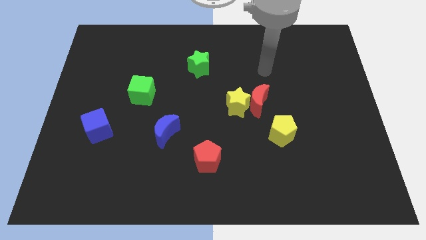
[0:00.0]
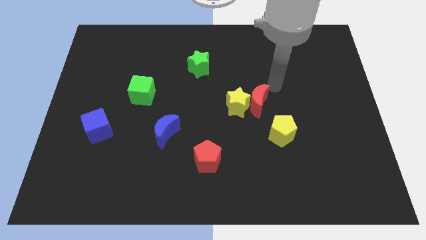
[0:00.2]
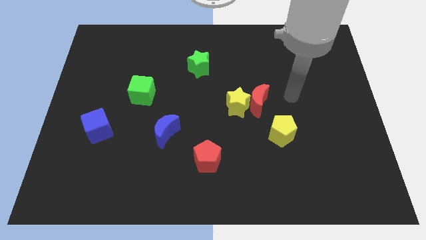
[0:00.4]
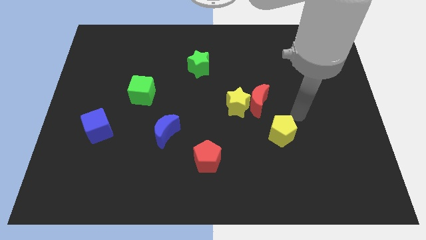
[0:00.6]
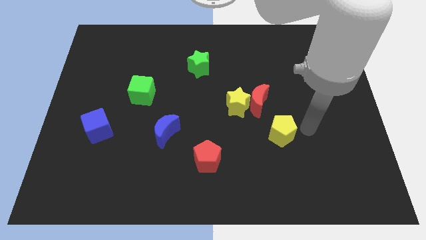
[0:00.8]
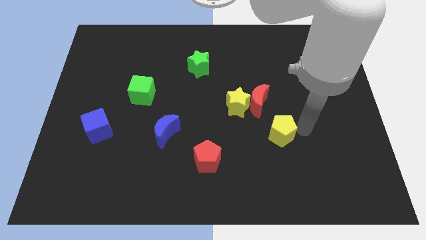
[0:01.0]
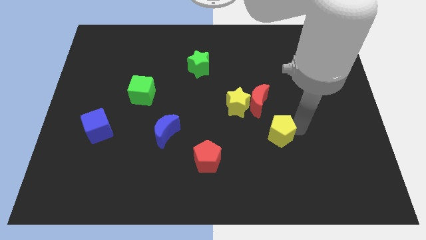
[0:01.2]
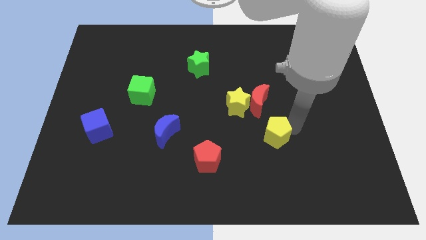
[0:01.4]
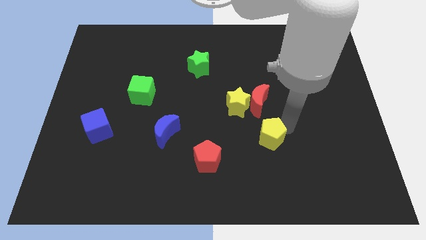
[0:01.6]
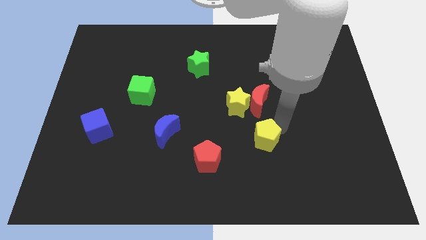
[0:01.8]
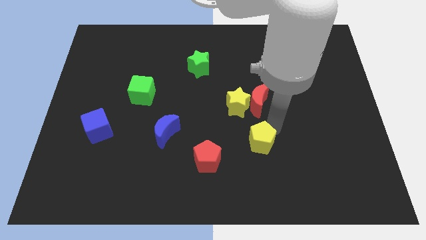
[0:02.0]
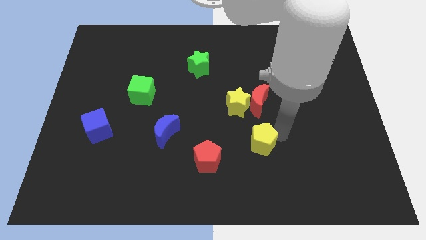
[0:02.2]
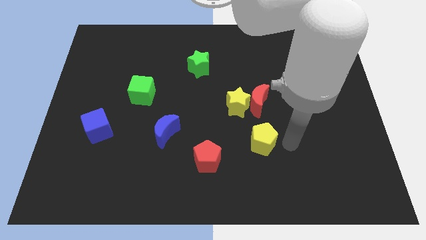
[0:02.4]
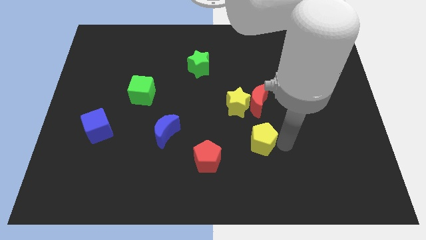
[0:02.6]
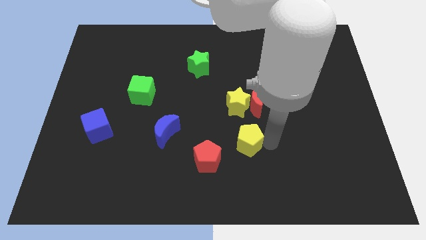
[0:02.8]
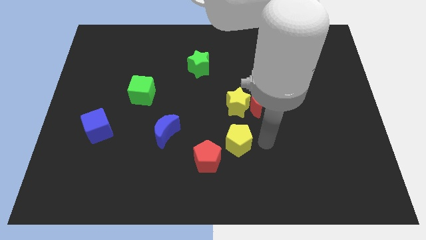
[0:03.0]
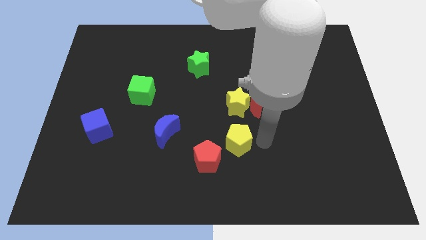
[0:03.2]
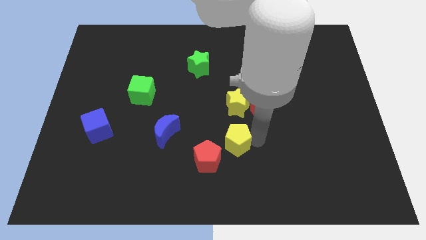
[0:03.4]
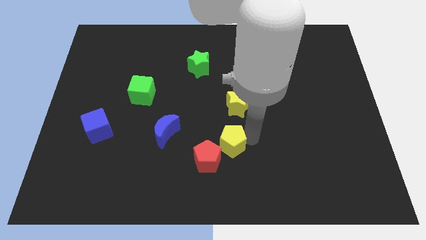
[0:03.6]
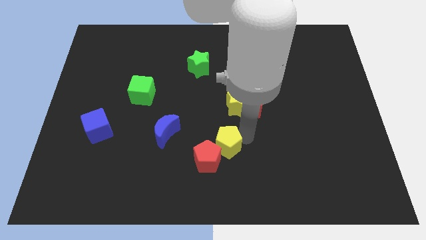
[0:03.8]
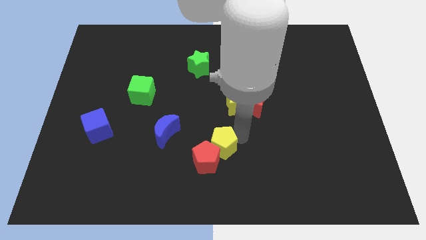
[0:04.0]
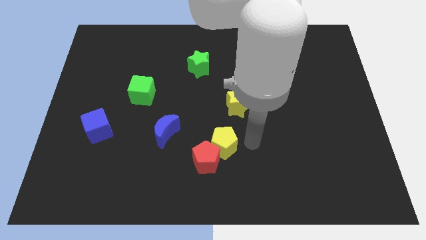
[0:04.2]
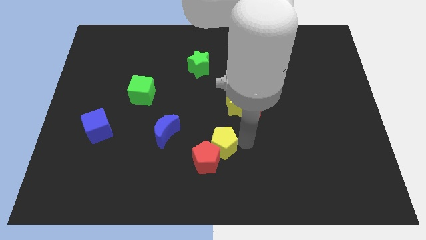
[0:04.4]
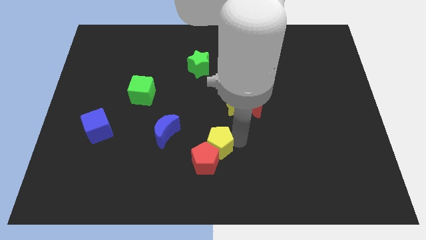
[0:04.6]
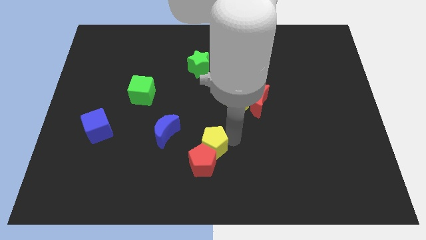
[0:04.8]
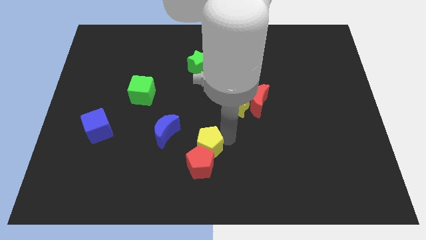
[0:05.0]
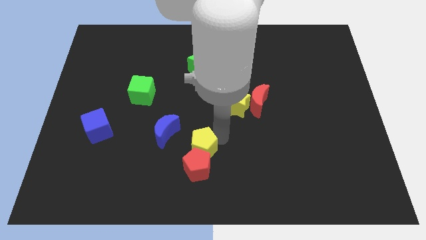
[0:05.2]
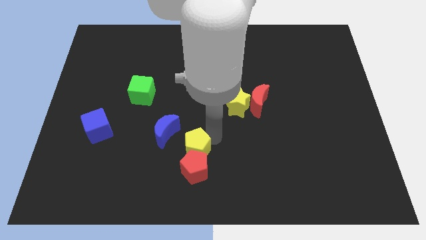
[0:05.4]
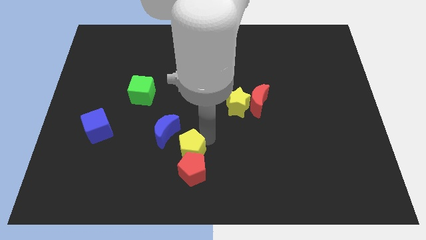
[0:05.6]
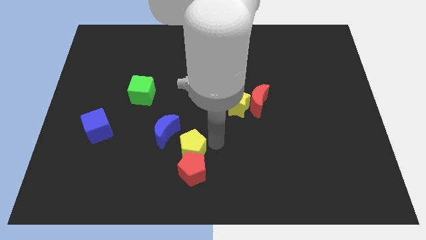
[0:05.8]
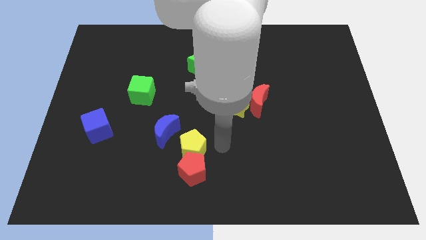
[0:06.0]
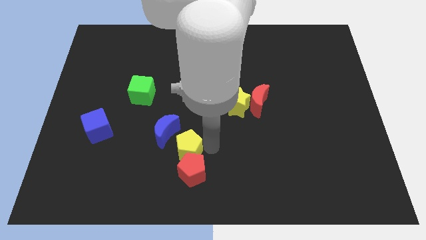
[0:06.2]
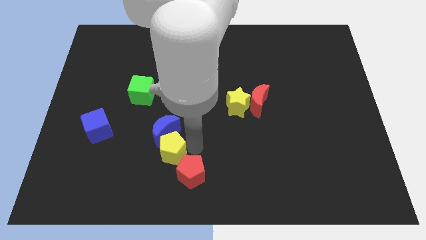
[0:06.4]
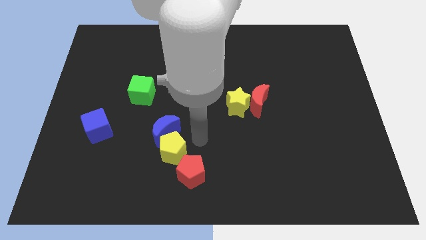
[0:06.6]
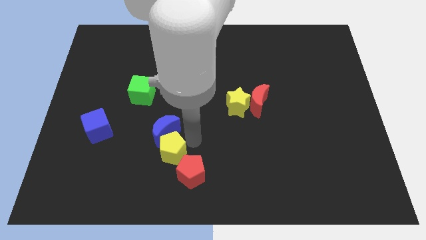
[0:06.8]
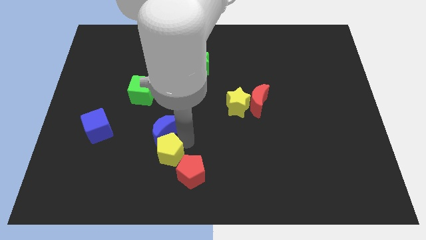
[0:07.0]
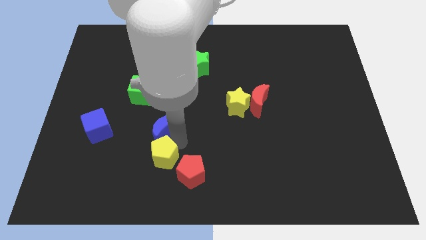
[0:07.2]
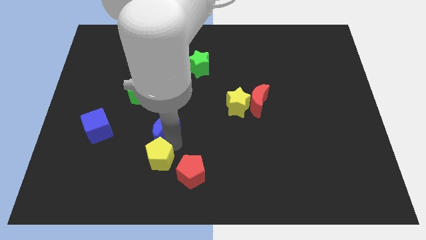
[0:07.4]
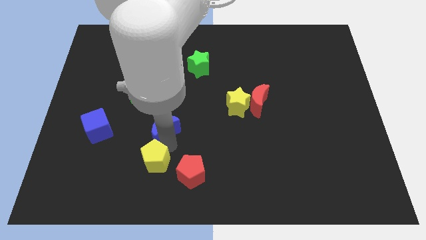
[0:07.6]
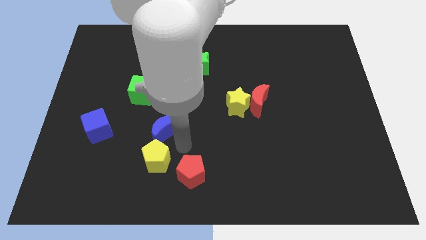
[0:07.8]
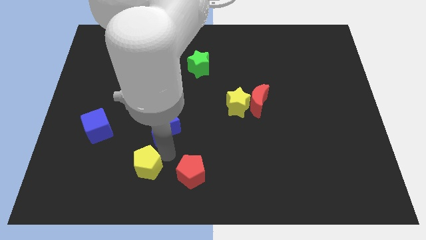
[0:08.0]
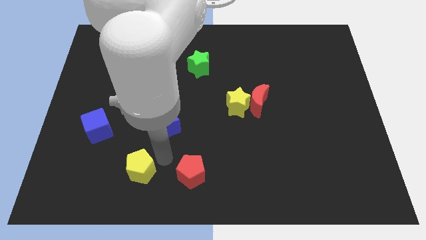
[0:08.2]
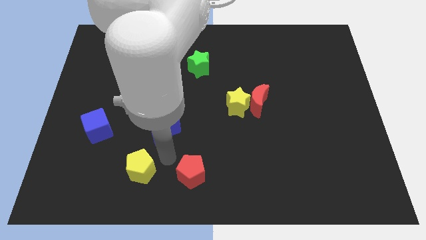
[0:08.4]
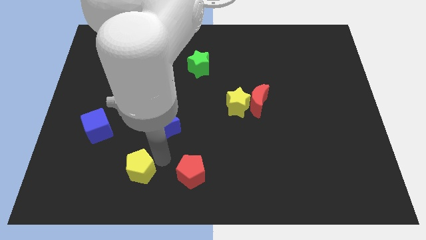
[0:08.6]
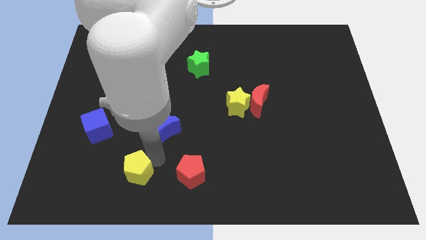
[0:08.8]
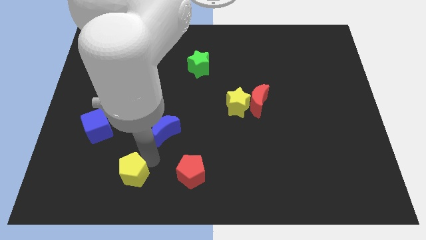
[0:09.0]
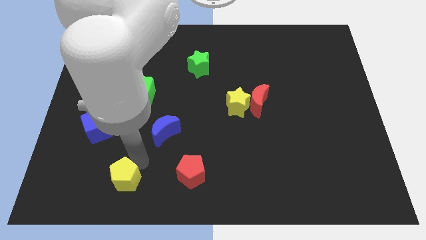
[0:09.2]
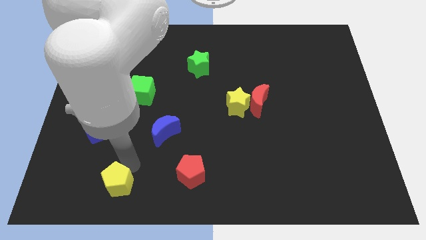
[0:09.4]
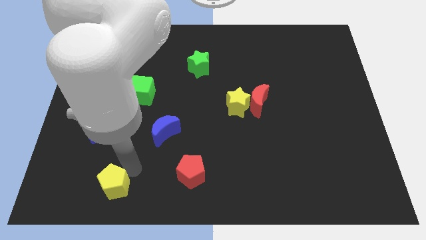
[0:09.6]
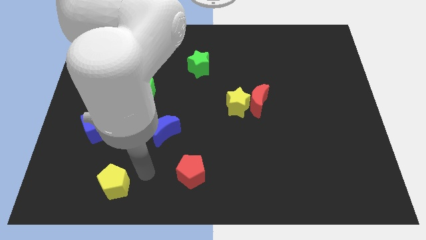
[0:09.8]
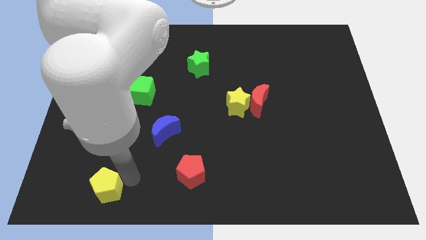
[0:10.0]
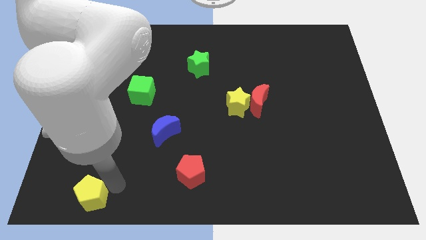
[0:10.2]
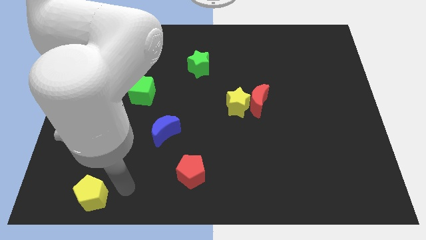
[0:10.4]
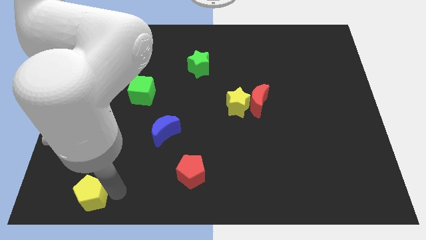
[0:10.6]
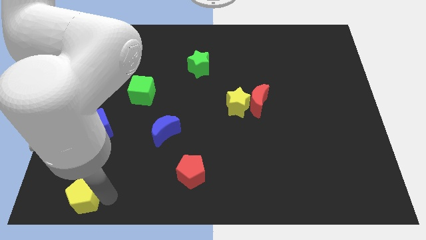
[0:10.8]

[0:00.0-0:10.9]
put the yellow pentagon to the bottom left of the board

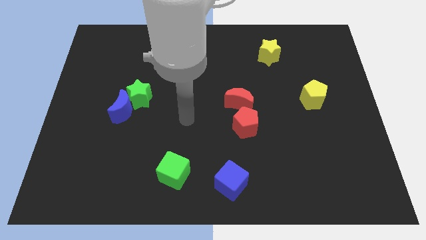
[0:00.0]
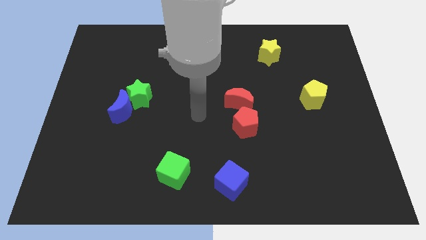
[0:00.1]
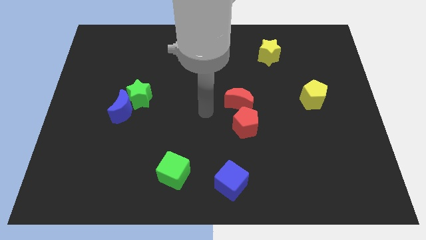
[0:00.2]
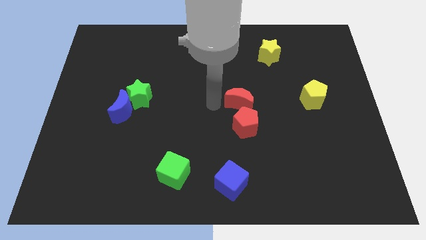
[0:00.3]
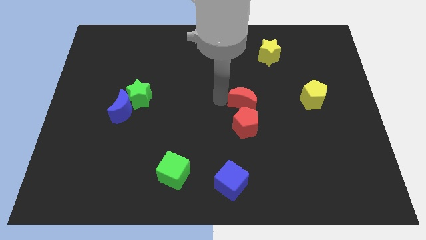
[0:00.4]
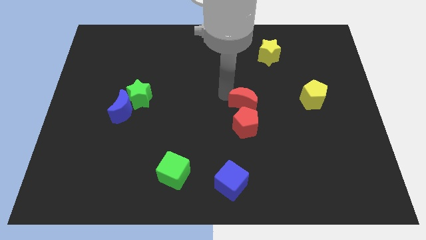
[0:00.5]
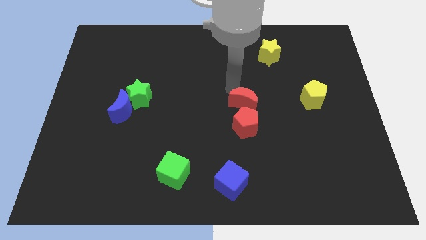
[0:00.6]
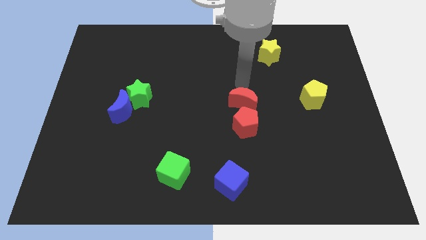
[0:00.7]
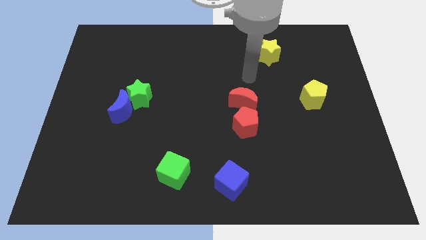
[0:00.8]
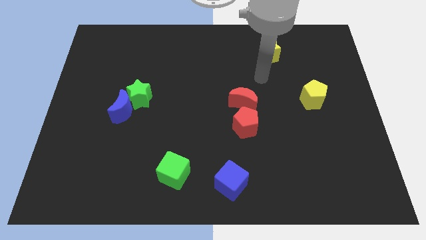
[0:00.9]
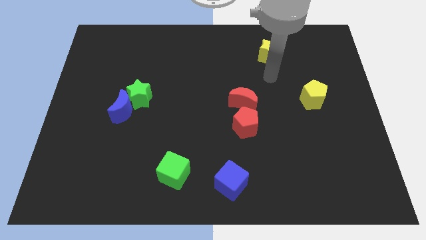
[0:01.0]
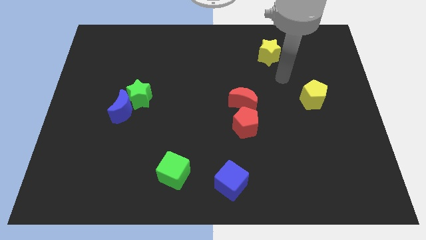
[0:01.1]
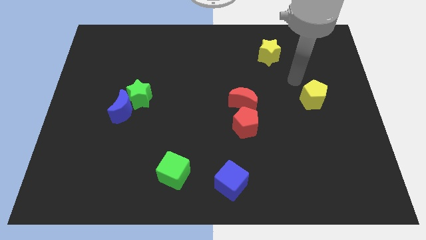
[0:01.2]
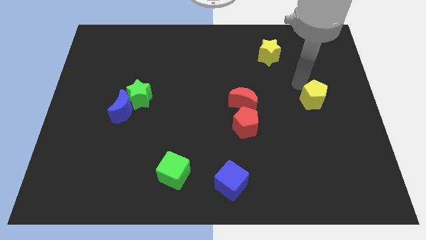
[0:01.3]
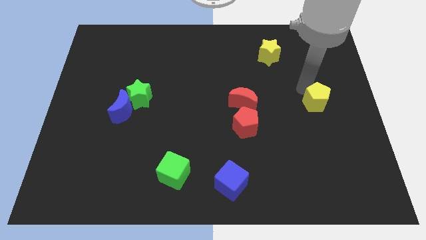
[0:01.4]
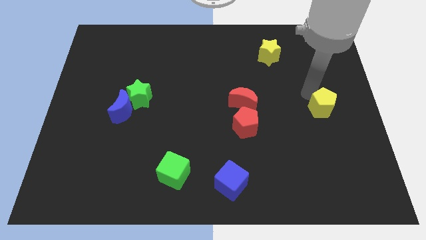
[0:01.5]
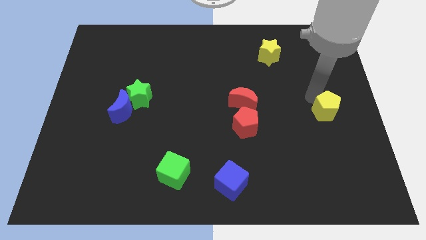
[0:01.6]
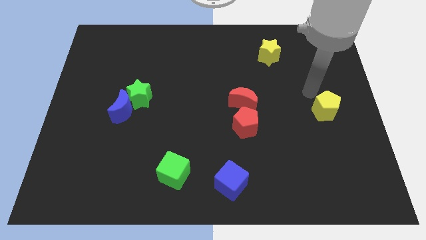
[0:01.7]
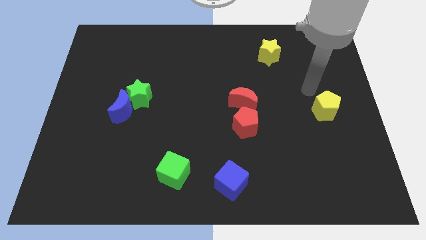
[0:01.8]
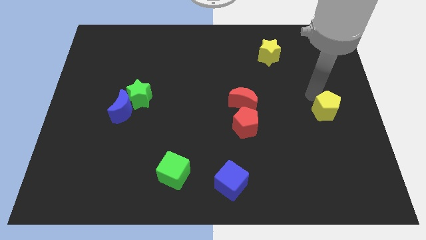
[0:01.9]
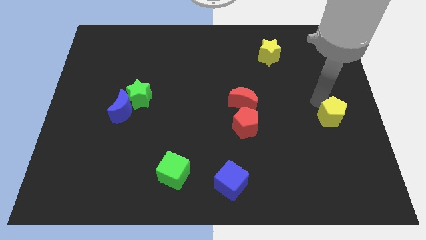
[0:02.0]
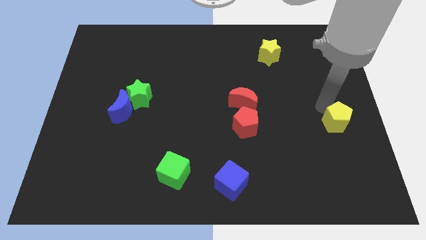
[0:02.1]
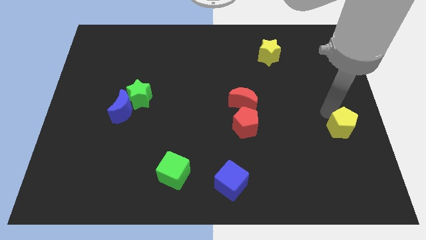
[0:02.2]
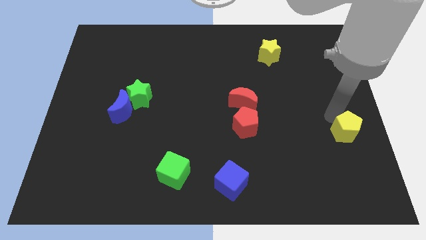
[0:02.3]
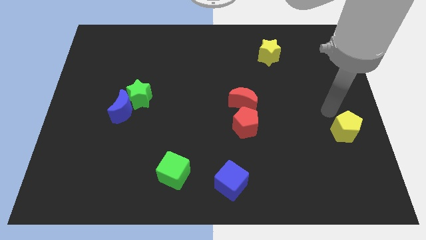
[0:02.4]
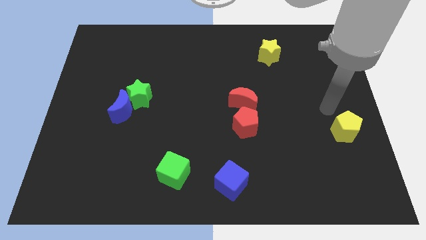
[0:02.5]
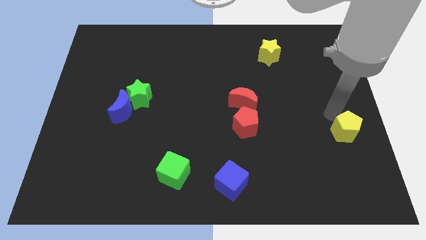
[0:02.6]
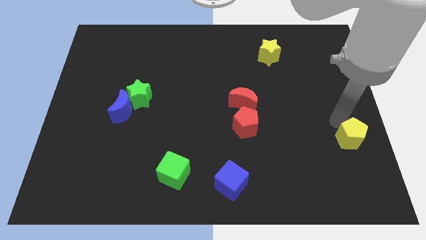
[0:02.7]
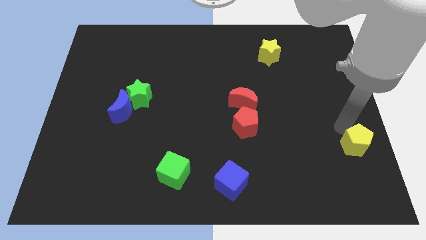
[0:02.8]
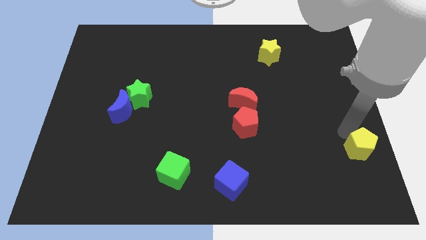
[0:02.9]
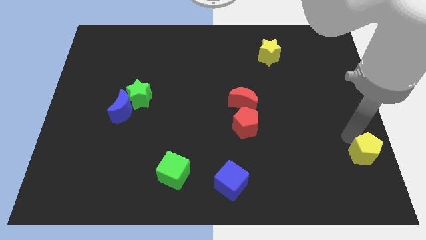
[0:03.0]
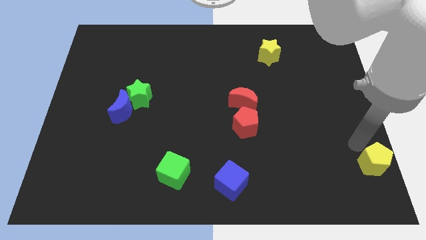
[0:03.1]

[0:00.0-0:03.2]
put the yellow pentagon to the lower right corner
